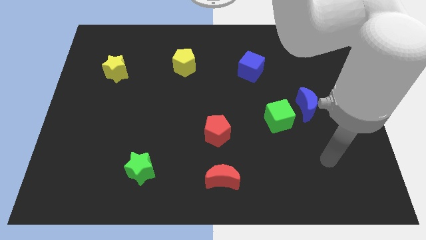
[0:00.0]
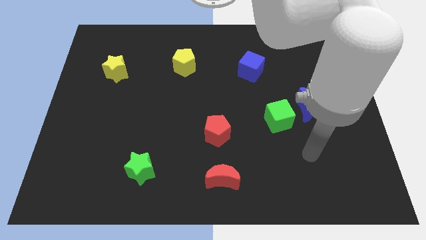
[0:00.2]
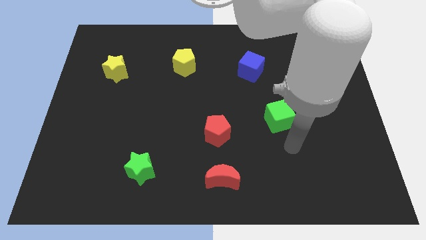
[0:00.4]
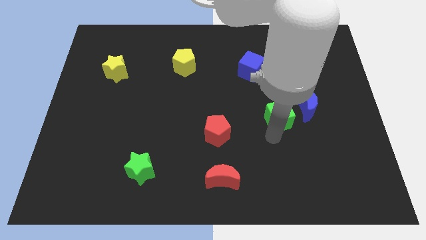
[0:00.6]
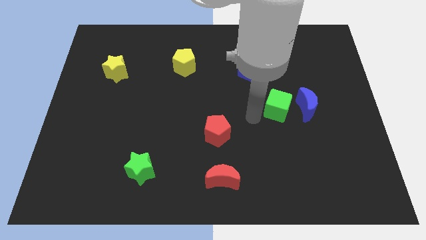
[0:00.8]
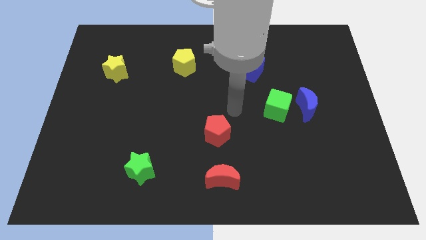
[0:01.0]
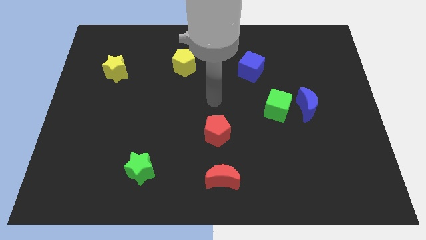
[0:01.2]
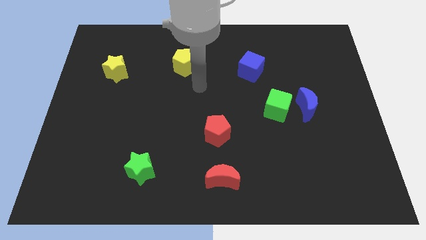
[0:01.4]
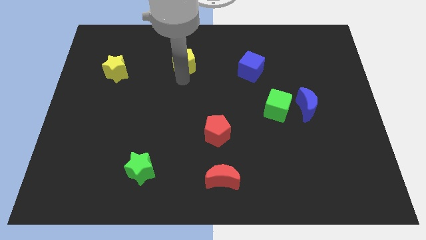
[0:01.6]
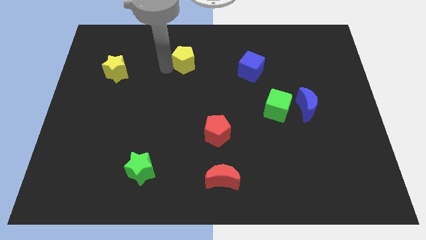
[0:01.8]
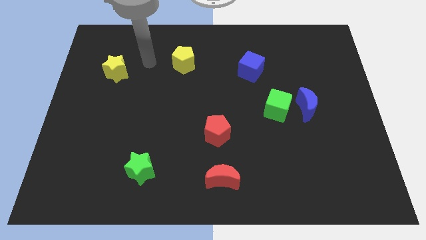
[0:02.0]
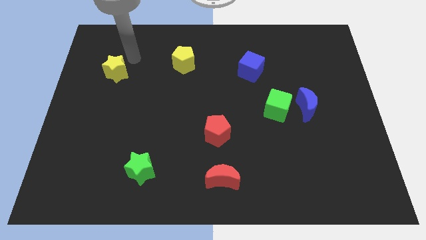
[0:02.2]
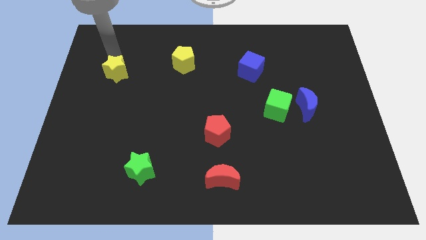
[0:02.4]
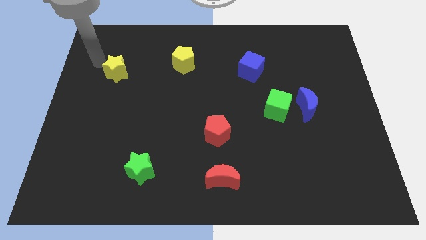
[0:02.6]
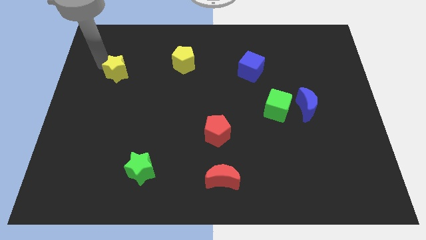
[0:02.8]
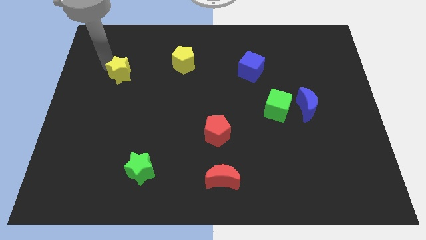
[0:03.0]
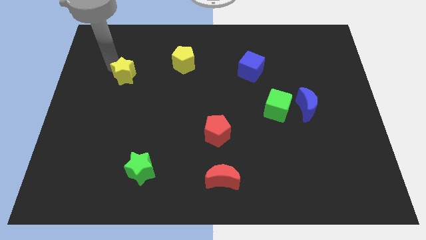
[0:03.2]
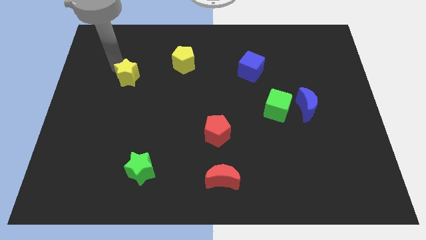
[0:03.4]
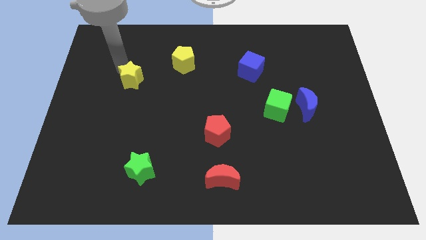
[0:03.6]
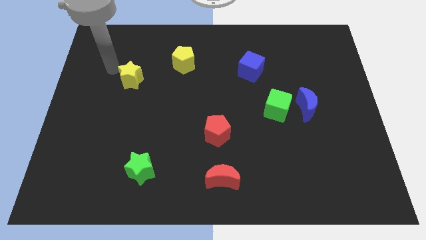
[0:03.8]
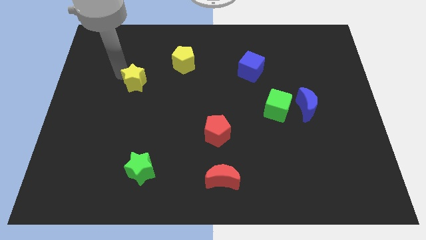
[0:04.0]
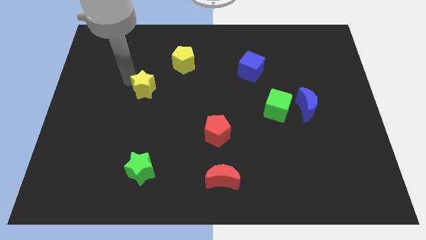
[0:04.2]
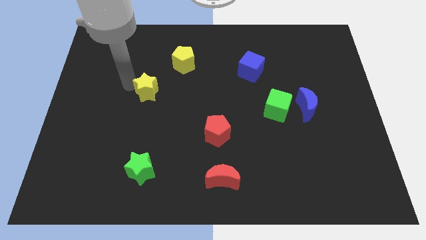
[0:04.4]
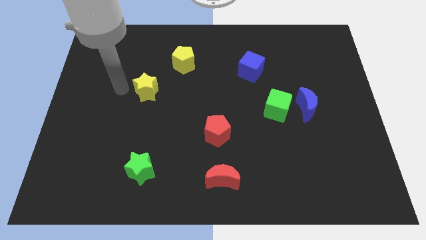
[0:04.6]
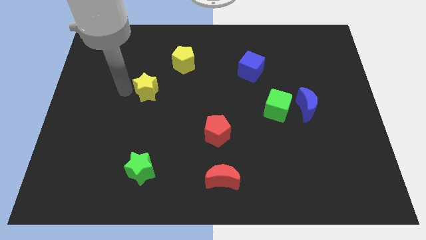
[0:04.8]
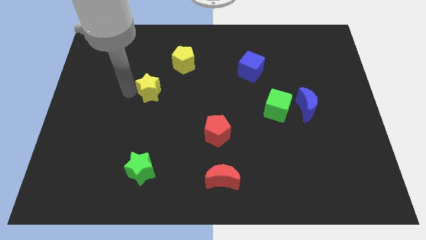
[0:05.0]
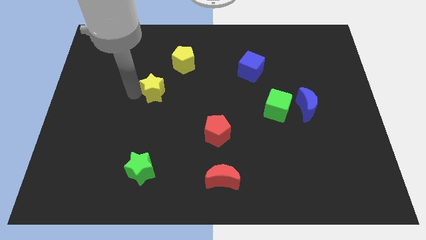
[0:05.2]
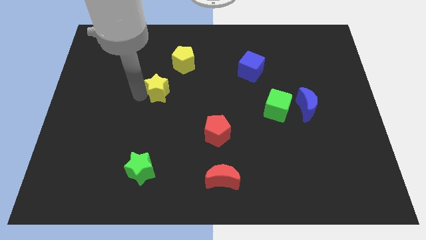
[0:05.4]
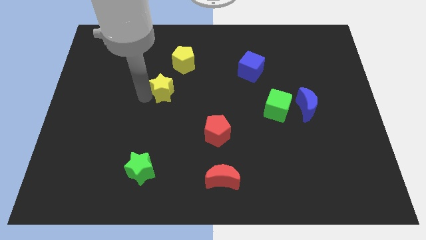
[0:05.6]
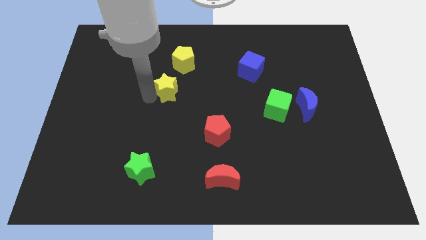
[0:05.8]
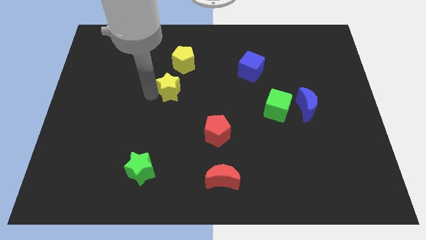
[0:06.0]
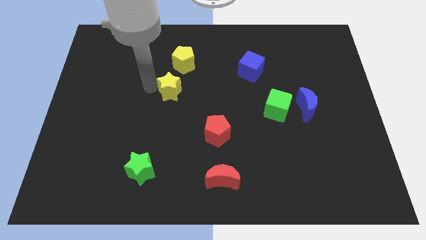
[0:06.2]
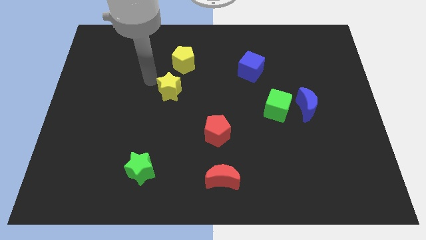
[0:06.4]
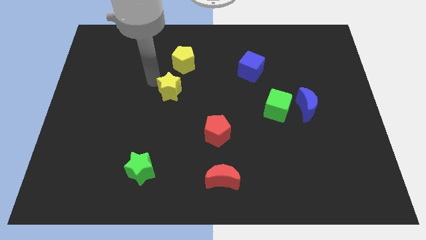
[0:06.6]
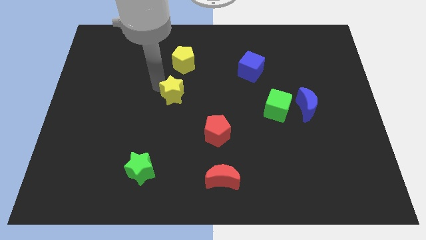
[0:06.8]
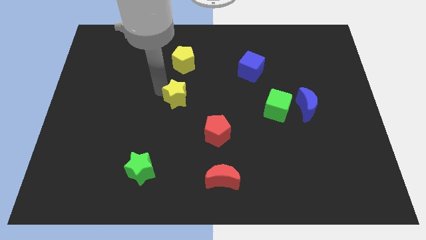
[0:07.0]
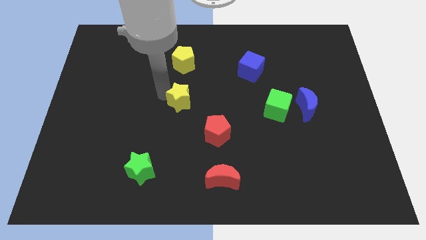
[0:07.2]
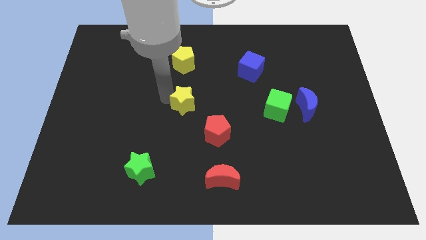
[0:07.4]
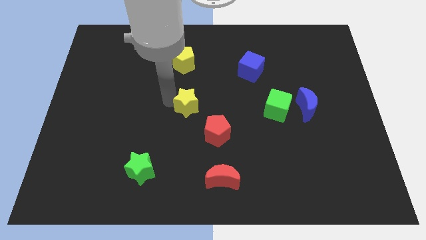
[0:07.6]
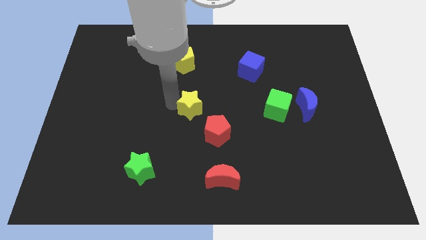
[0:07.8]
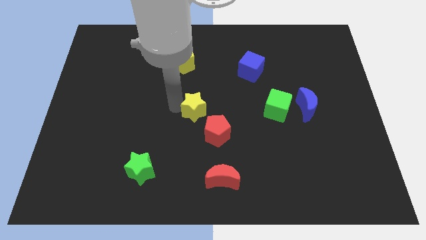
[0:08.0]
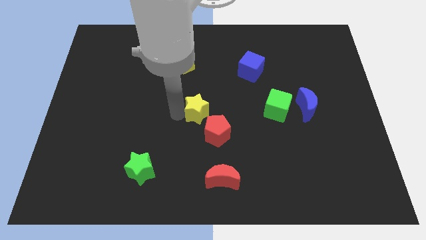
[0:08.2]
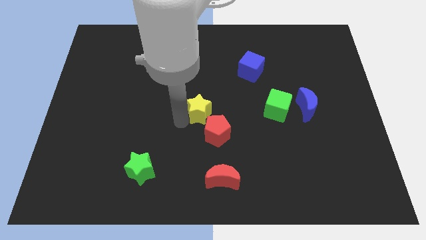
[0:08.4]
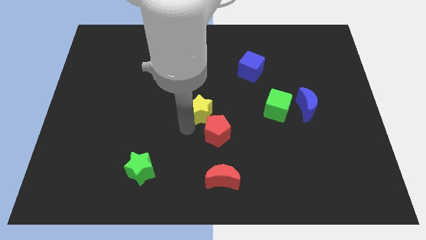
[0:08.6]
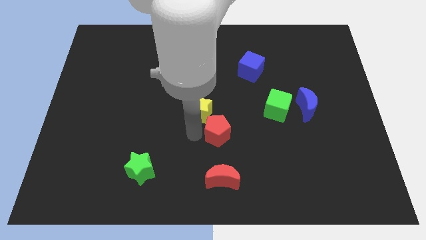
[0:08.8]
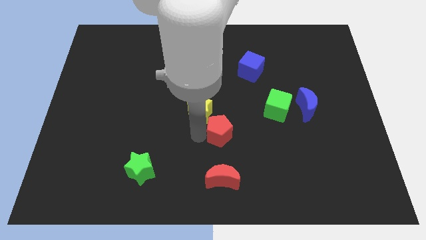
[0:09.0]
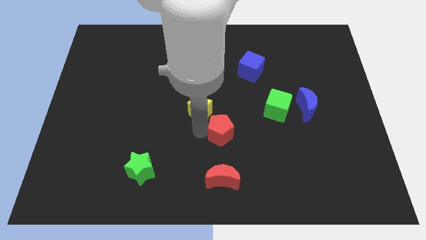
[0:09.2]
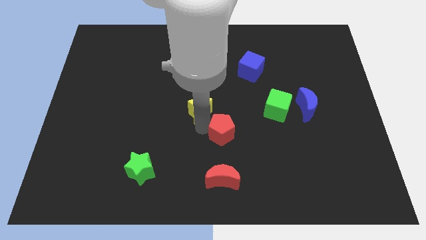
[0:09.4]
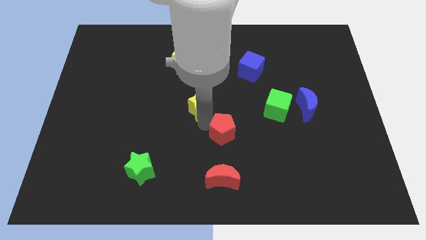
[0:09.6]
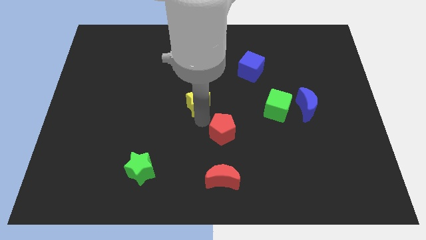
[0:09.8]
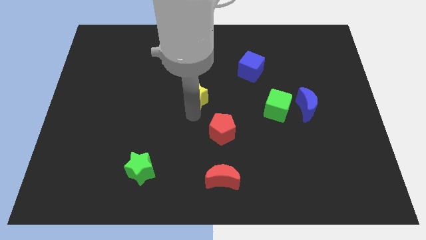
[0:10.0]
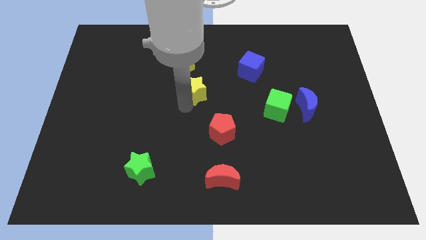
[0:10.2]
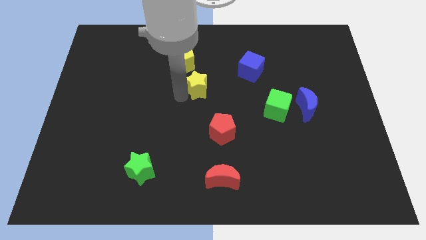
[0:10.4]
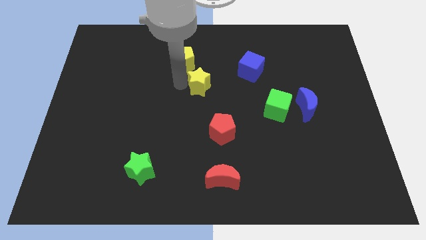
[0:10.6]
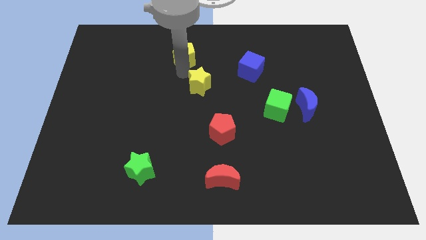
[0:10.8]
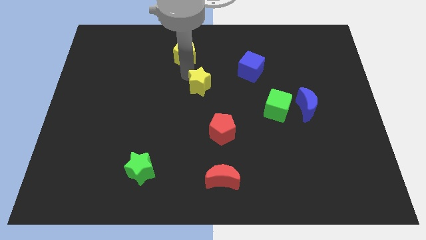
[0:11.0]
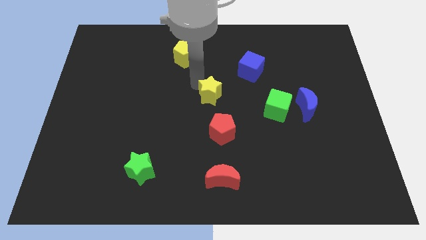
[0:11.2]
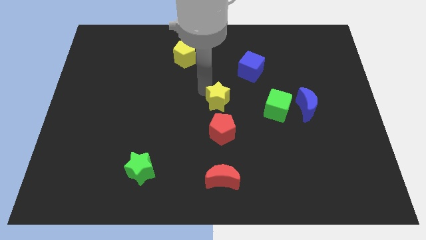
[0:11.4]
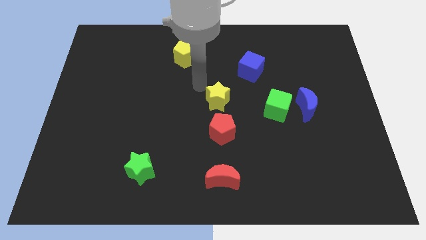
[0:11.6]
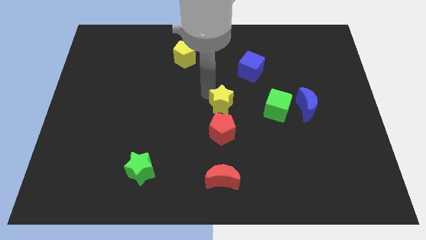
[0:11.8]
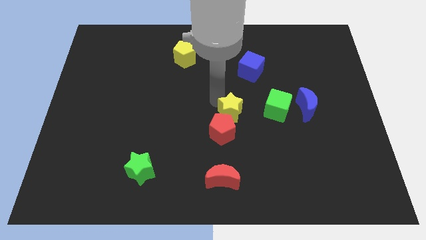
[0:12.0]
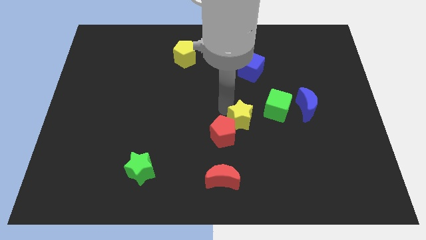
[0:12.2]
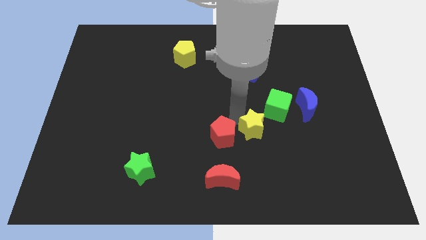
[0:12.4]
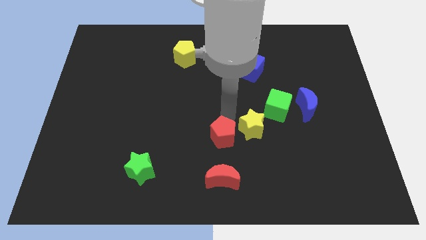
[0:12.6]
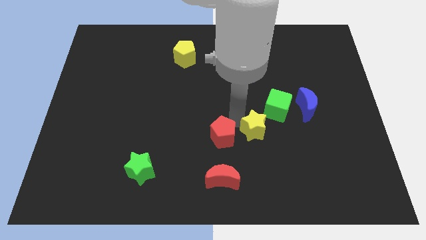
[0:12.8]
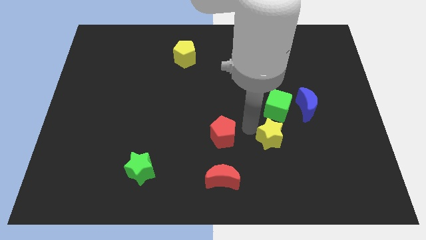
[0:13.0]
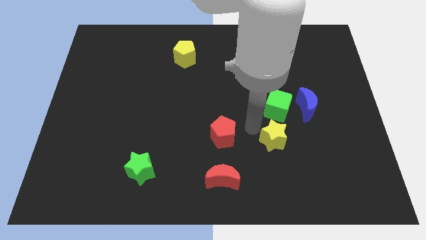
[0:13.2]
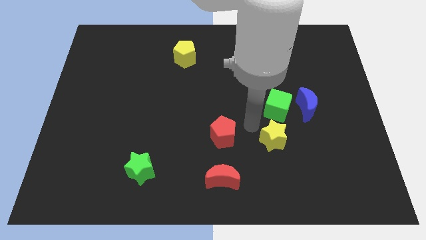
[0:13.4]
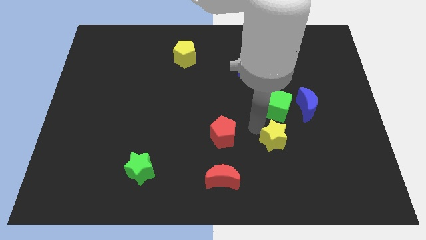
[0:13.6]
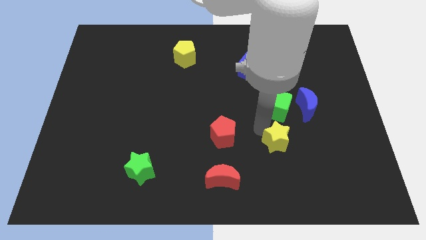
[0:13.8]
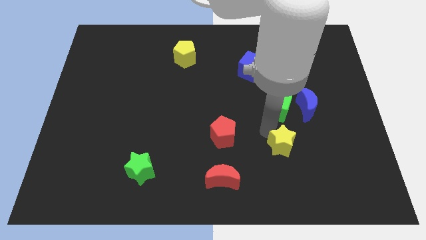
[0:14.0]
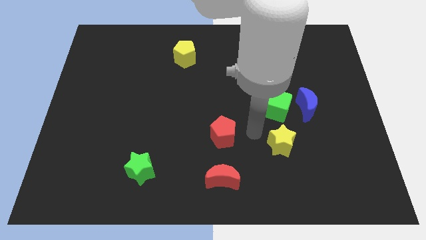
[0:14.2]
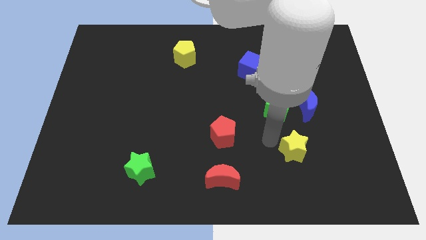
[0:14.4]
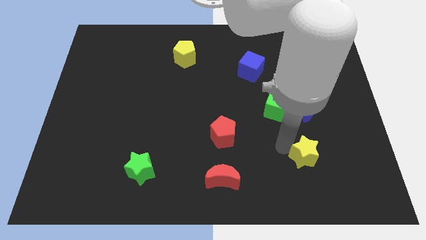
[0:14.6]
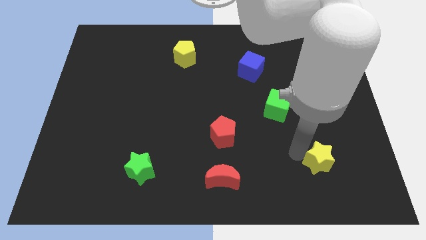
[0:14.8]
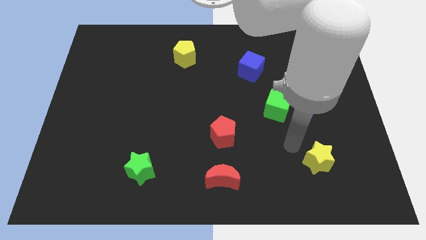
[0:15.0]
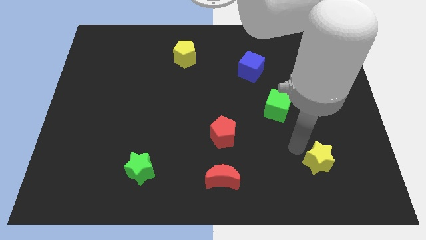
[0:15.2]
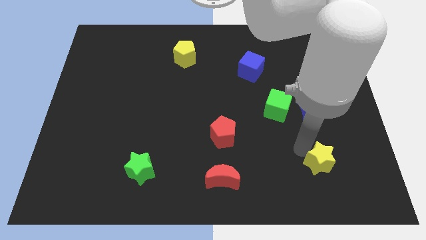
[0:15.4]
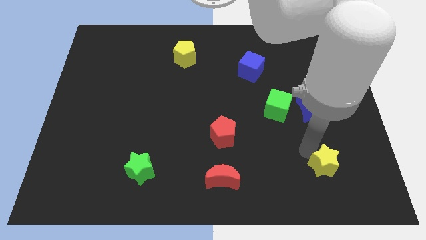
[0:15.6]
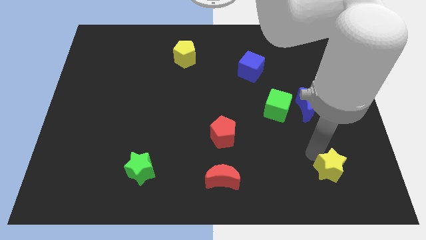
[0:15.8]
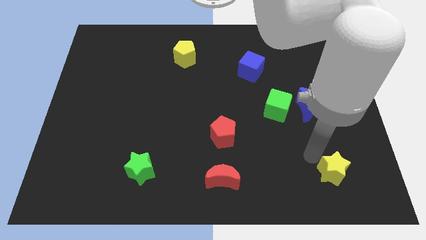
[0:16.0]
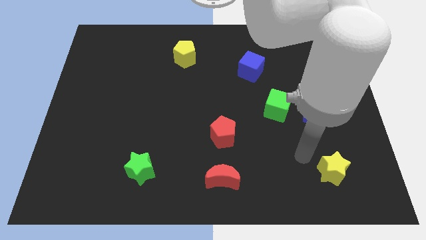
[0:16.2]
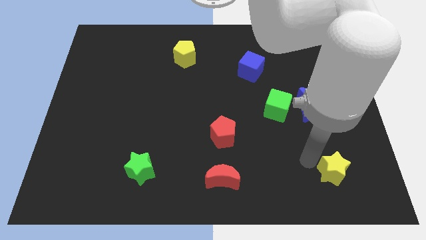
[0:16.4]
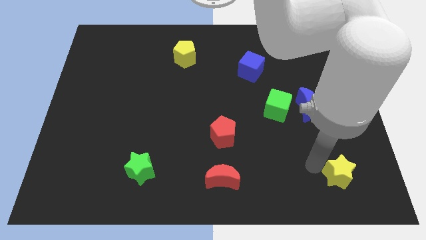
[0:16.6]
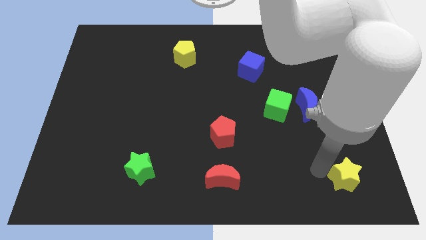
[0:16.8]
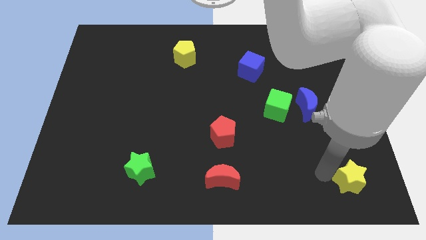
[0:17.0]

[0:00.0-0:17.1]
slide the yellow star to the bottom right of the board
